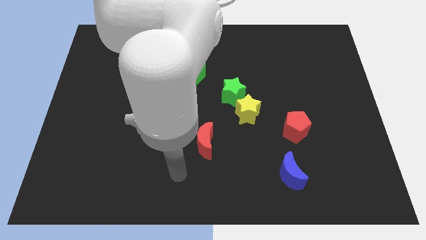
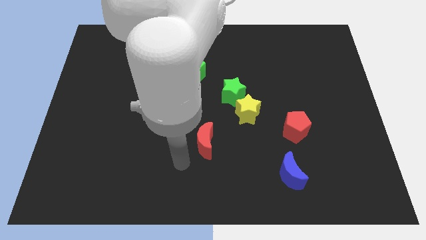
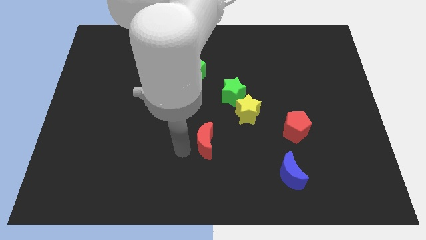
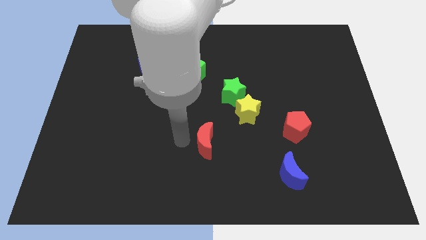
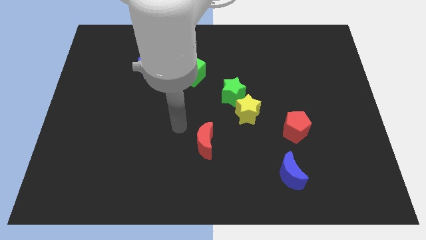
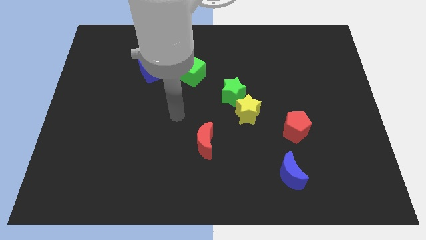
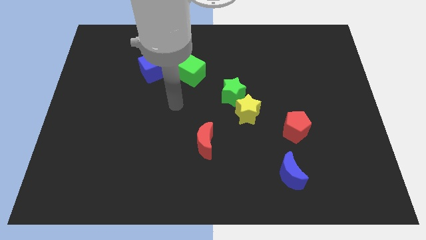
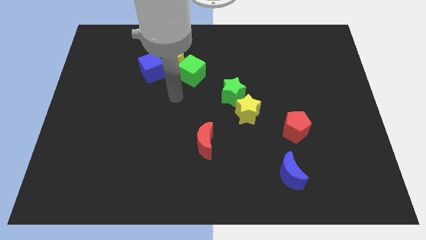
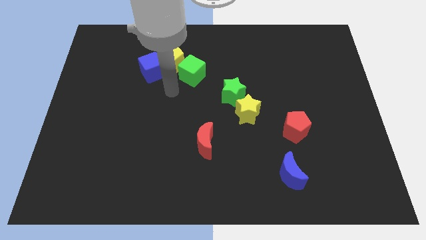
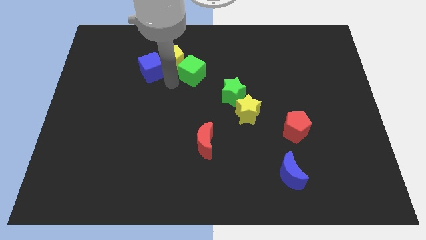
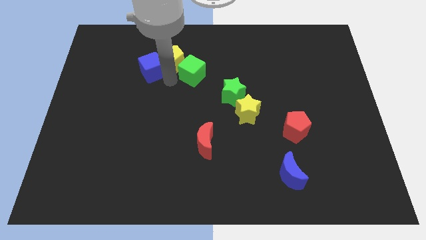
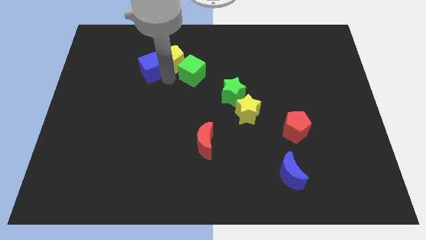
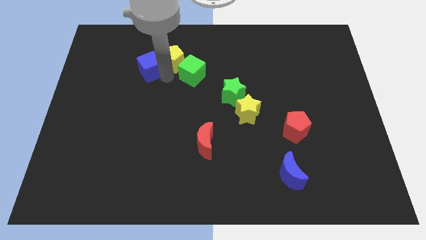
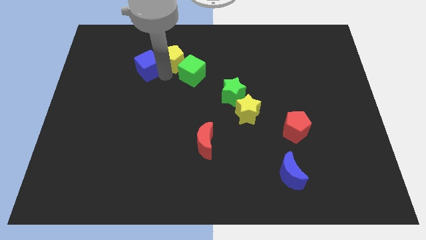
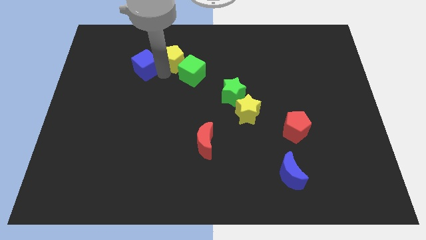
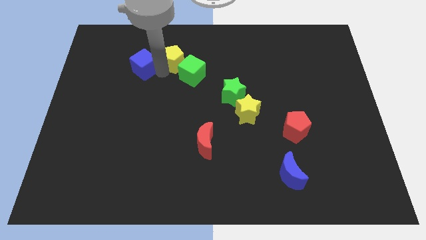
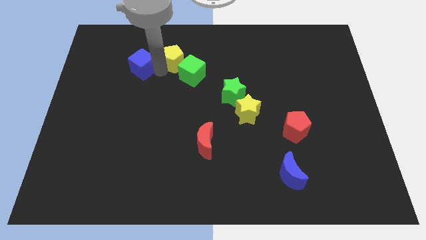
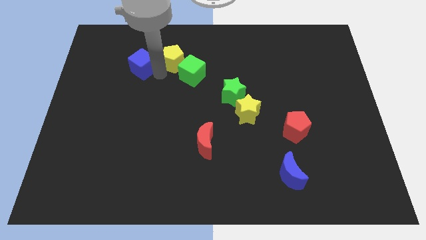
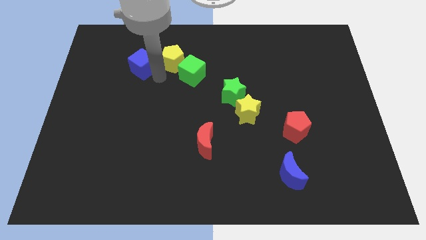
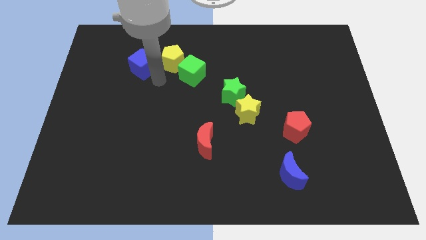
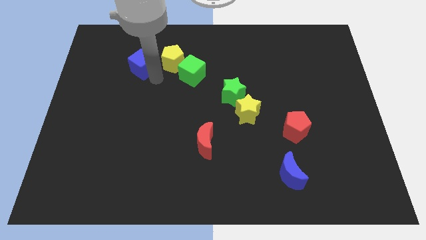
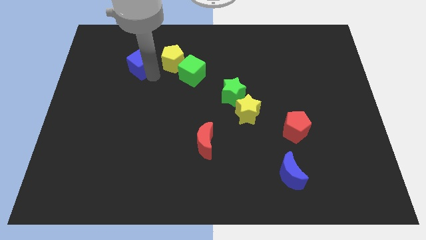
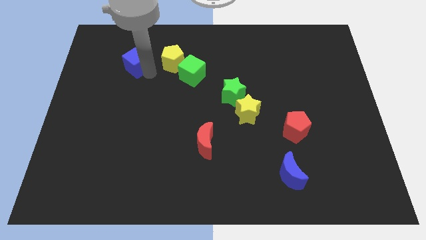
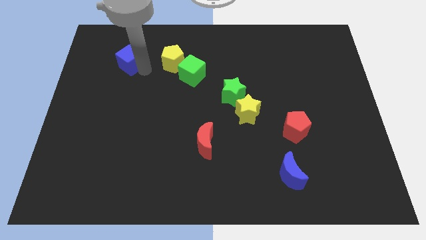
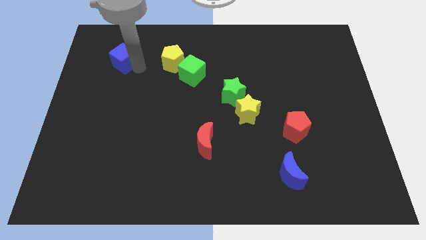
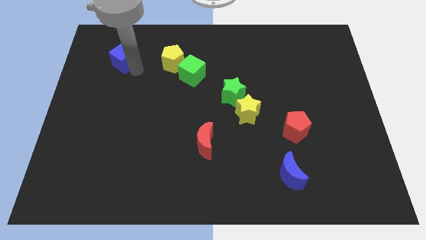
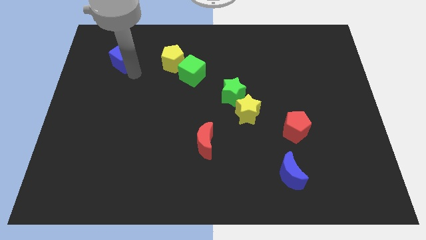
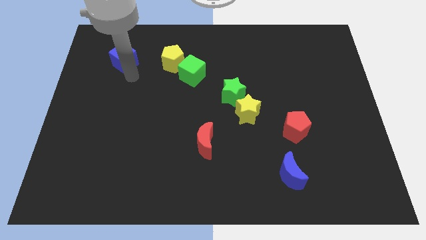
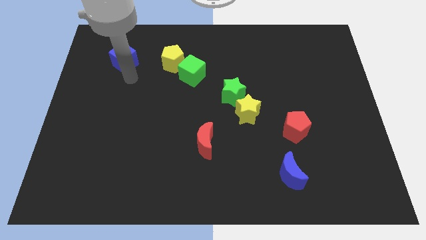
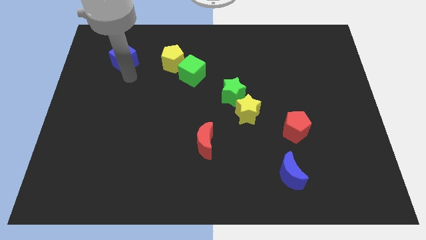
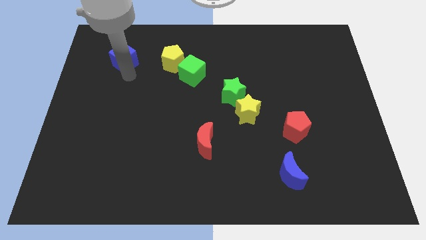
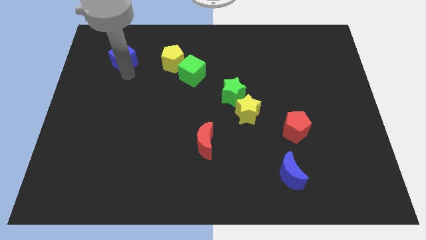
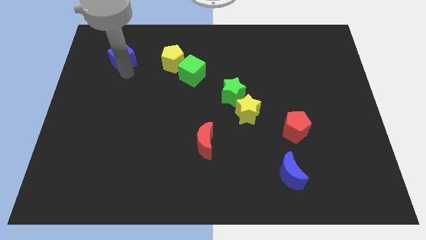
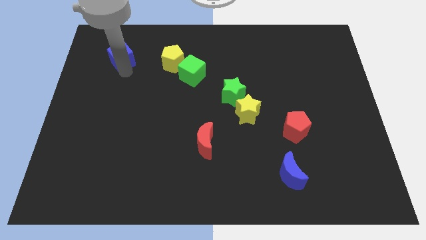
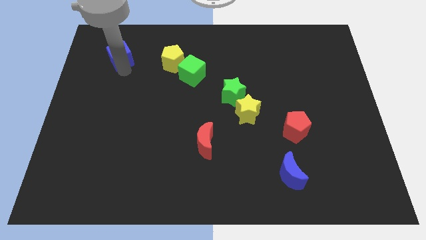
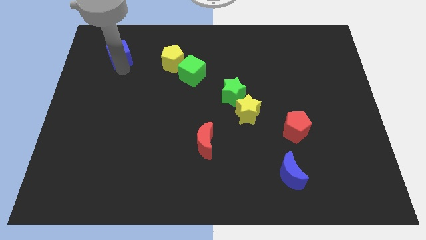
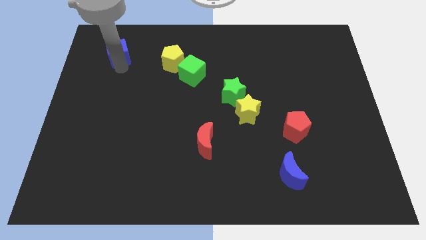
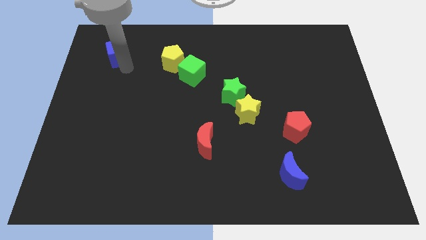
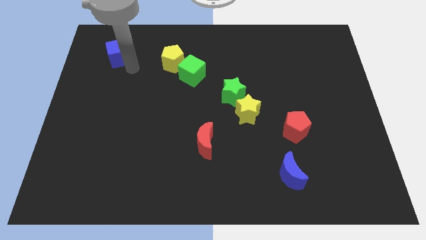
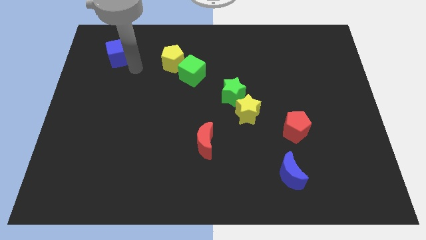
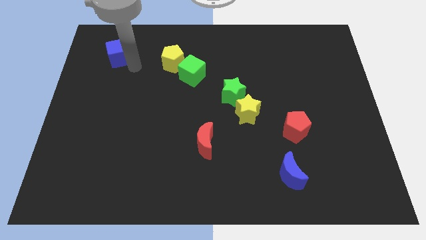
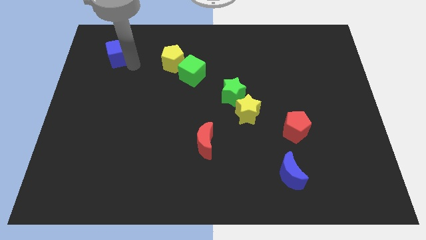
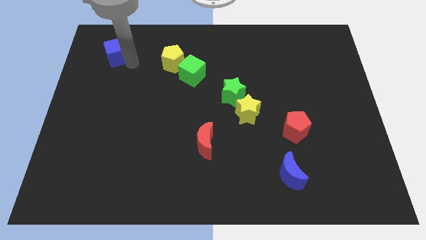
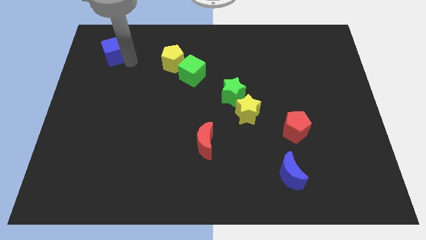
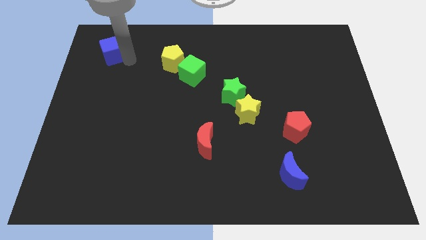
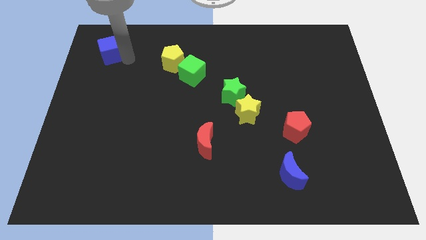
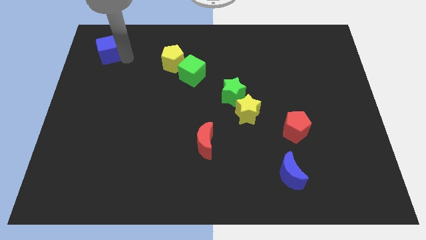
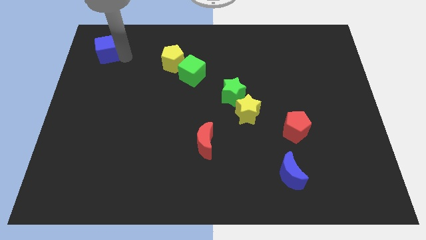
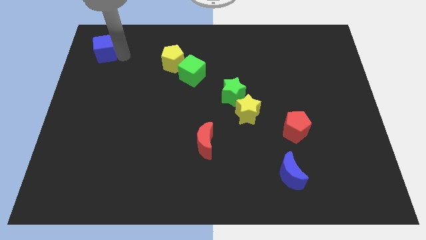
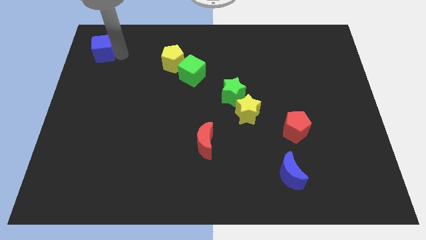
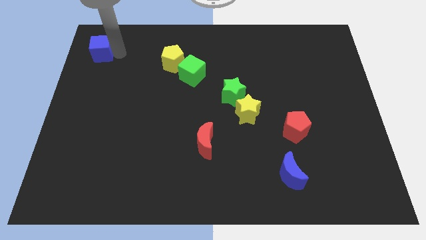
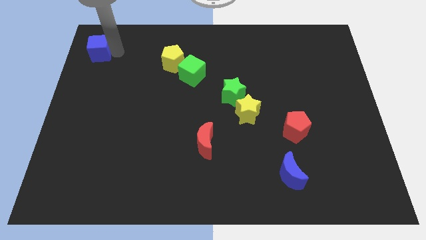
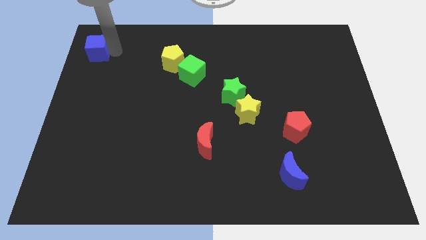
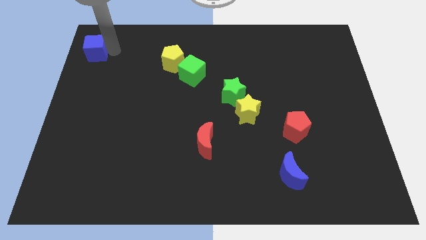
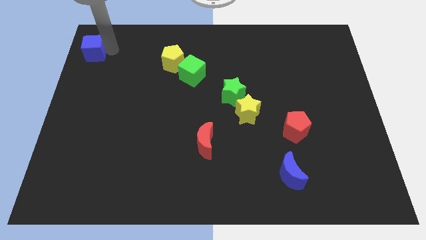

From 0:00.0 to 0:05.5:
slide the blue cube to the top left corner
